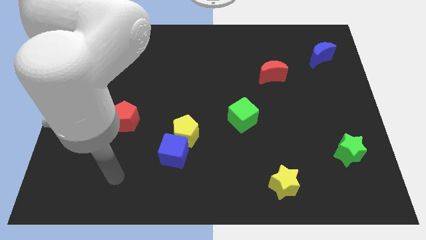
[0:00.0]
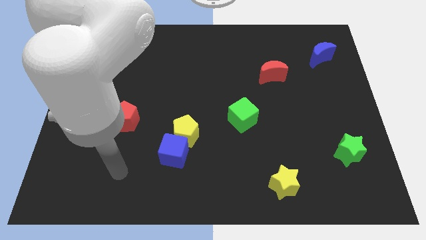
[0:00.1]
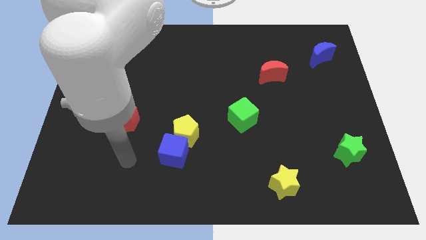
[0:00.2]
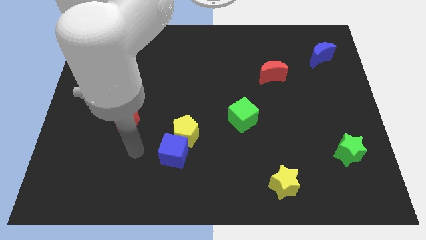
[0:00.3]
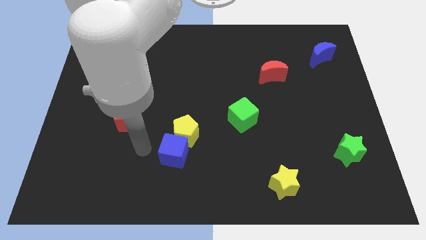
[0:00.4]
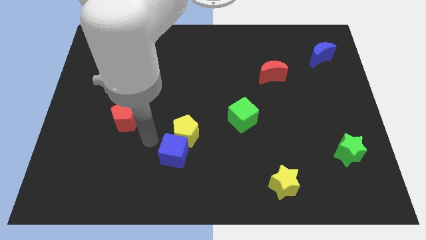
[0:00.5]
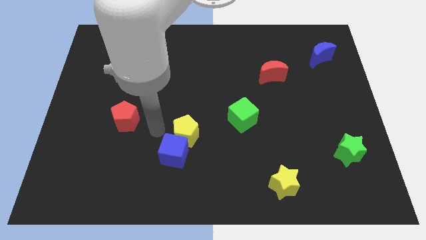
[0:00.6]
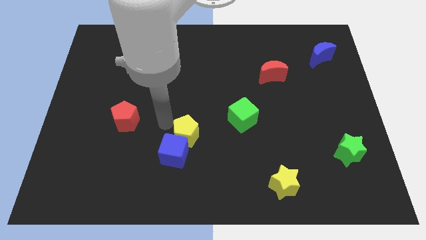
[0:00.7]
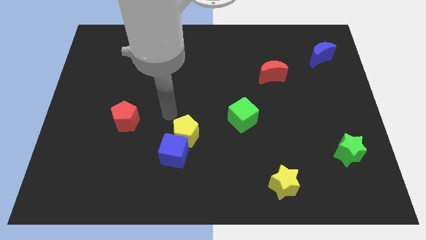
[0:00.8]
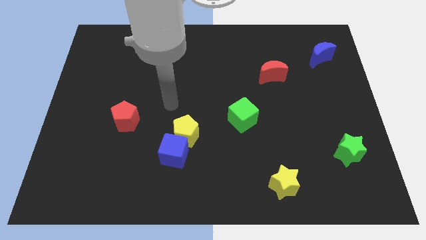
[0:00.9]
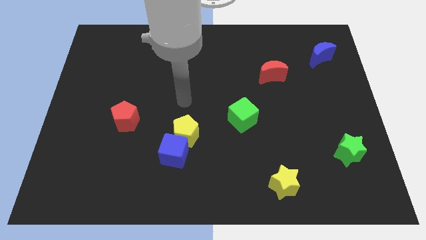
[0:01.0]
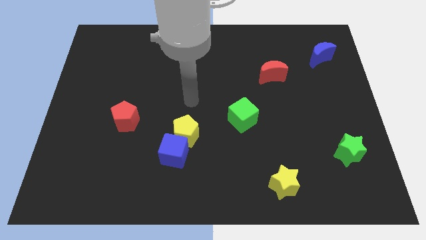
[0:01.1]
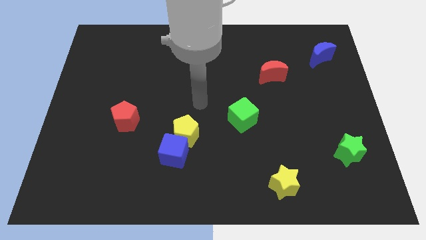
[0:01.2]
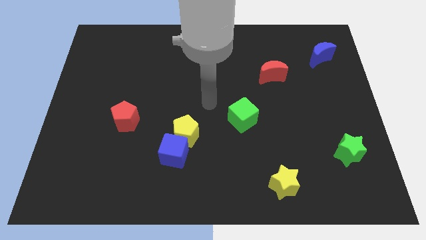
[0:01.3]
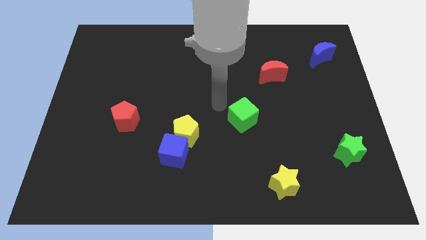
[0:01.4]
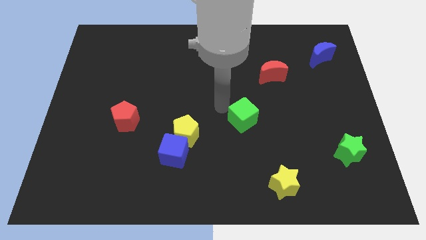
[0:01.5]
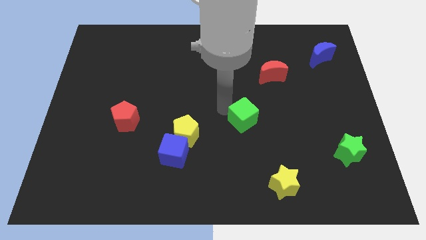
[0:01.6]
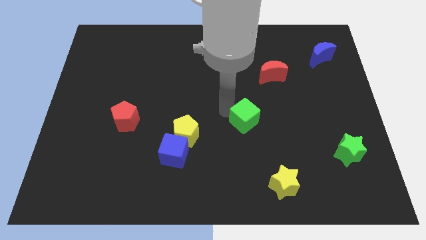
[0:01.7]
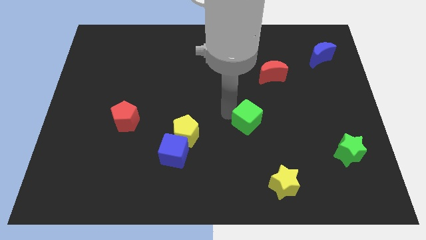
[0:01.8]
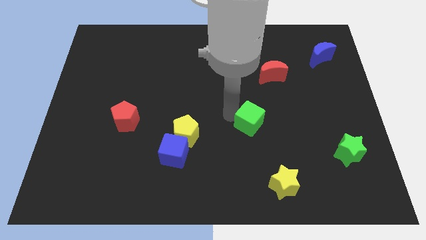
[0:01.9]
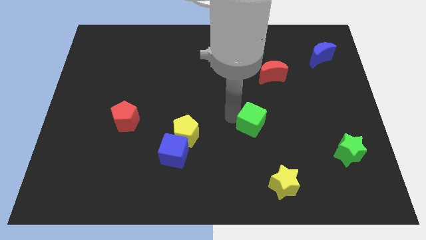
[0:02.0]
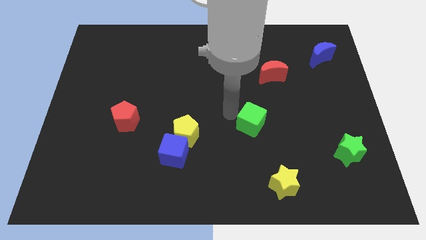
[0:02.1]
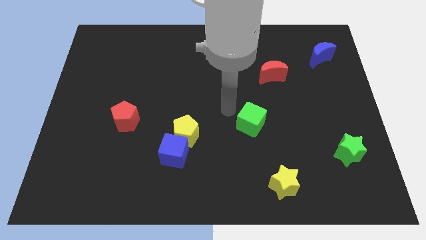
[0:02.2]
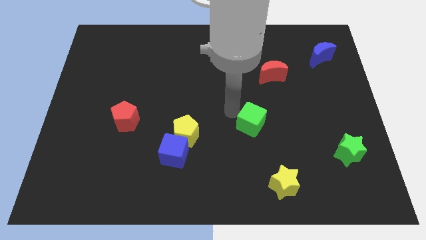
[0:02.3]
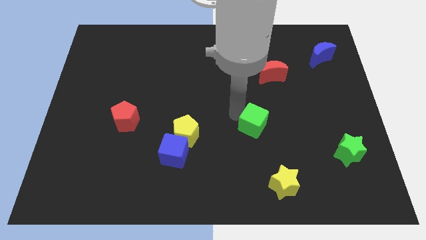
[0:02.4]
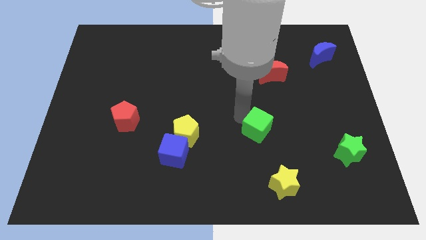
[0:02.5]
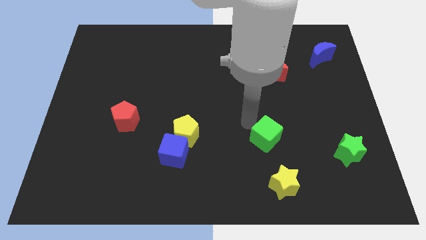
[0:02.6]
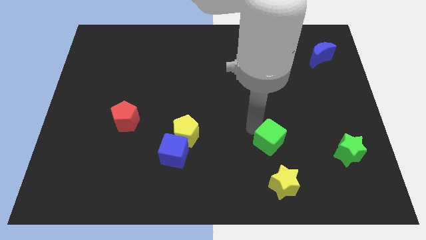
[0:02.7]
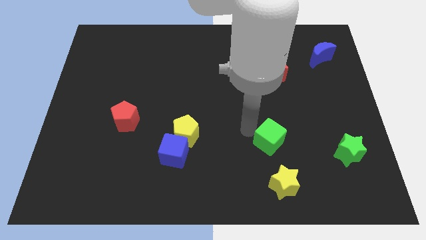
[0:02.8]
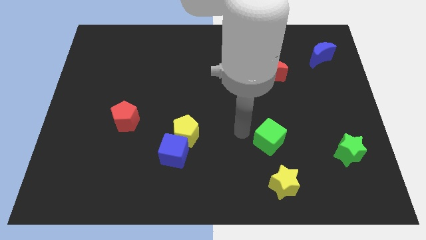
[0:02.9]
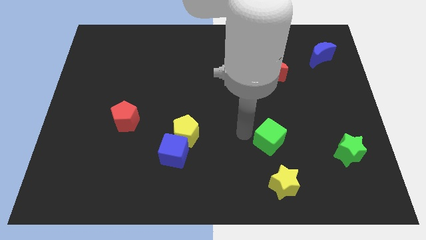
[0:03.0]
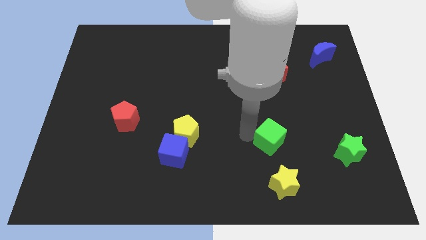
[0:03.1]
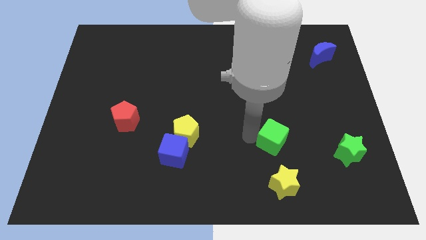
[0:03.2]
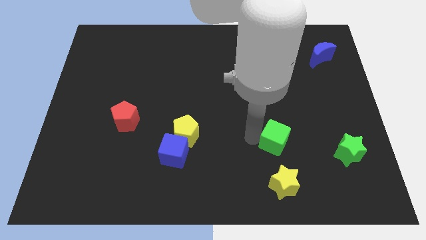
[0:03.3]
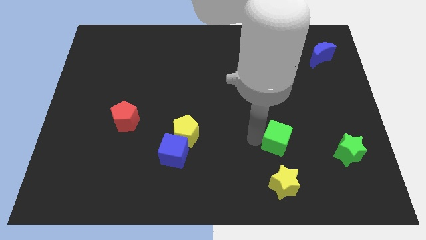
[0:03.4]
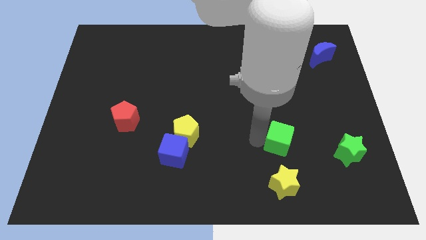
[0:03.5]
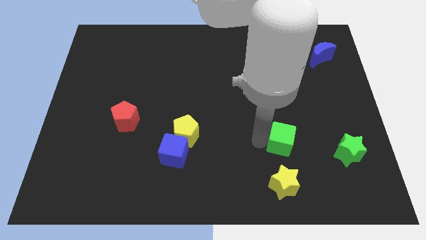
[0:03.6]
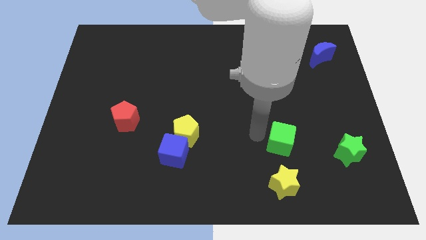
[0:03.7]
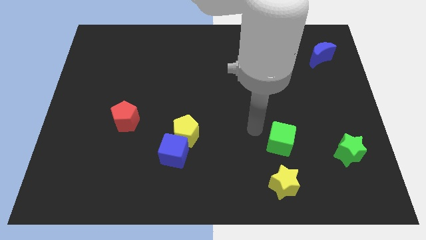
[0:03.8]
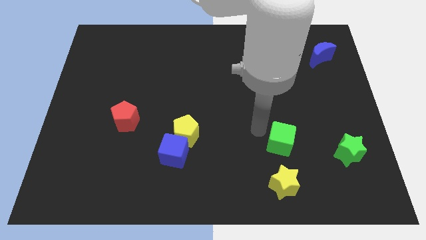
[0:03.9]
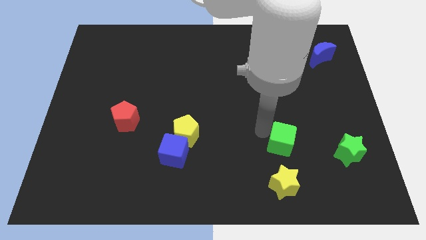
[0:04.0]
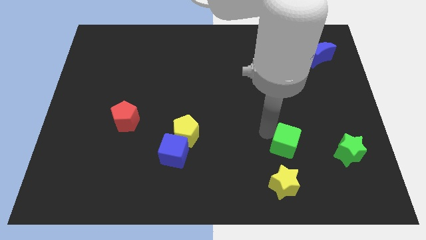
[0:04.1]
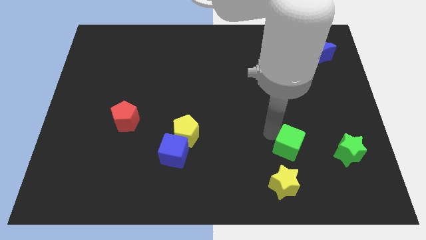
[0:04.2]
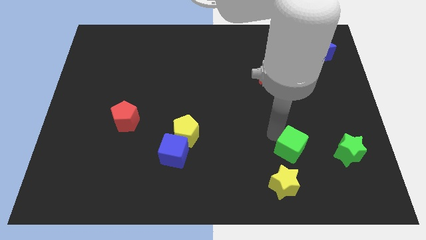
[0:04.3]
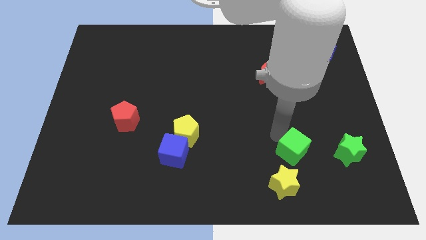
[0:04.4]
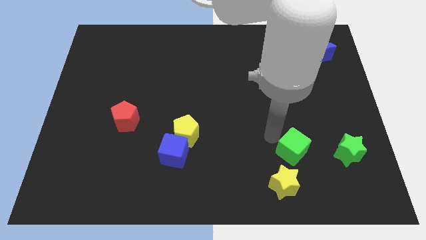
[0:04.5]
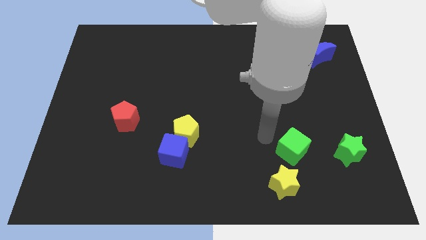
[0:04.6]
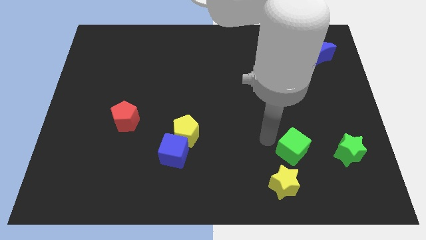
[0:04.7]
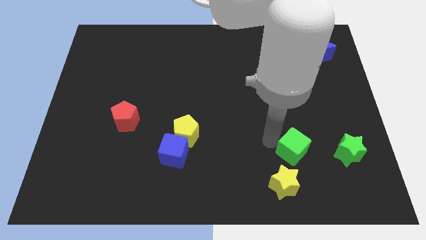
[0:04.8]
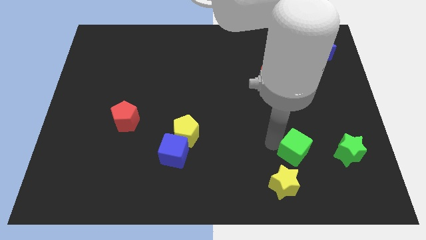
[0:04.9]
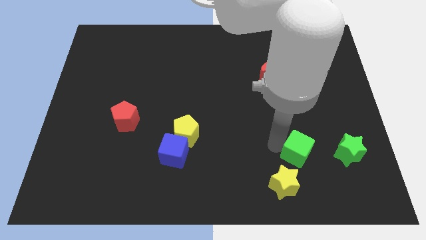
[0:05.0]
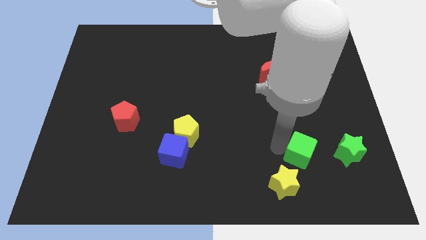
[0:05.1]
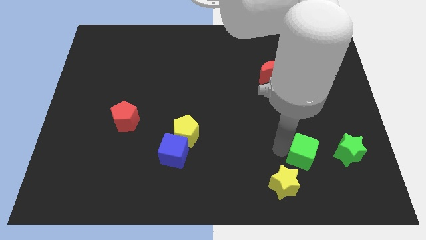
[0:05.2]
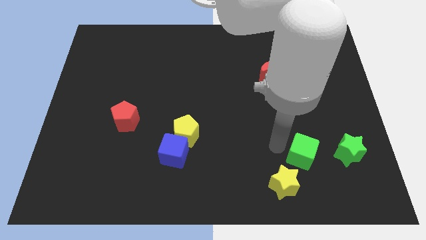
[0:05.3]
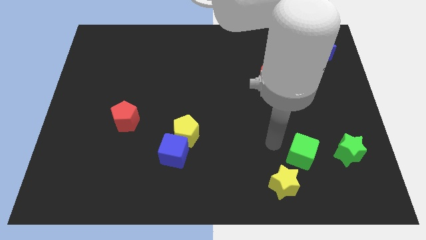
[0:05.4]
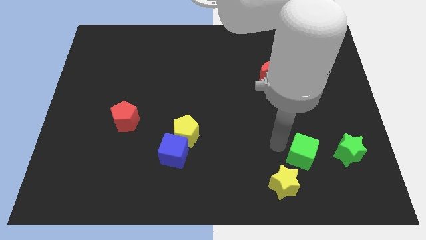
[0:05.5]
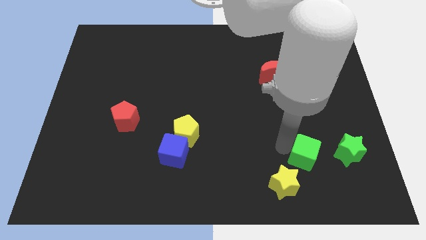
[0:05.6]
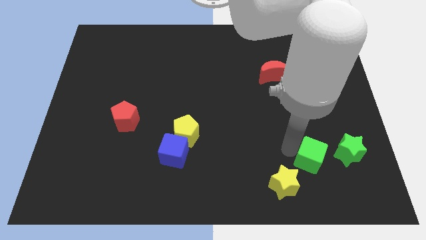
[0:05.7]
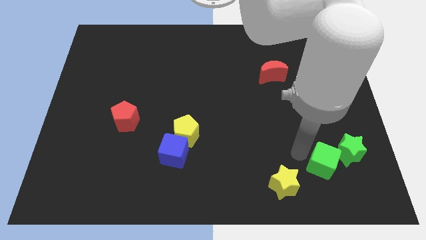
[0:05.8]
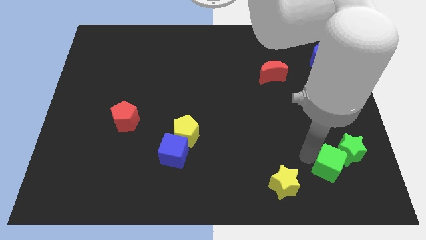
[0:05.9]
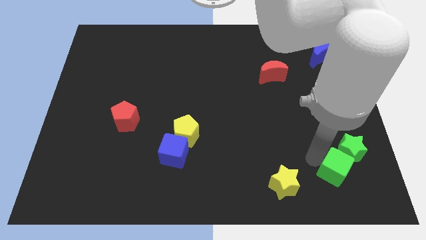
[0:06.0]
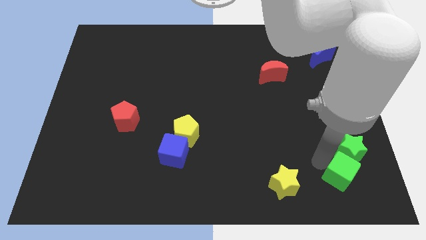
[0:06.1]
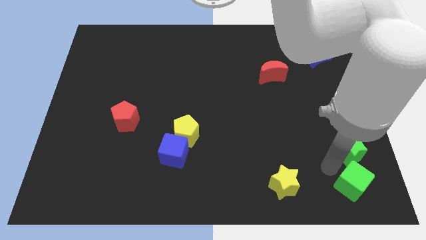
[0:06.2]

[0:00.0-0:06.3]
move the green cube to the bottom right

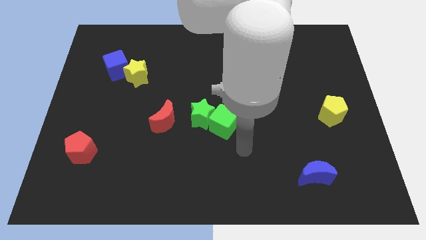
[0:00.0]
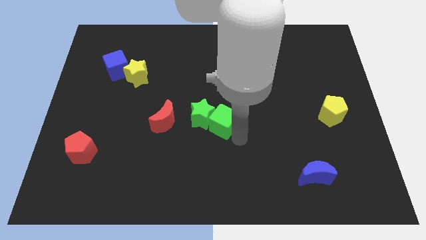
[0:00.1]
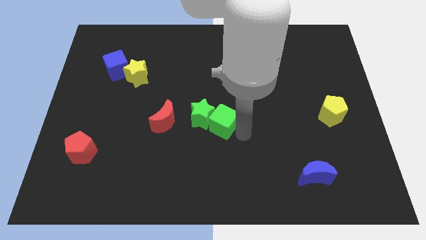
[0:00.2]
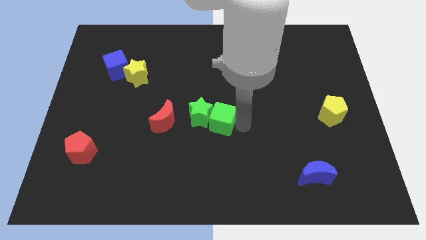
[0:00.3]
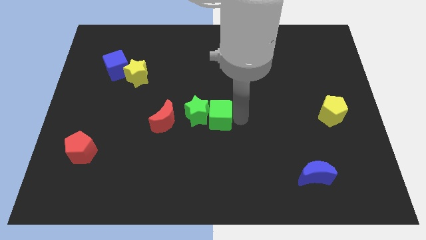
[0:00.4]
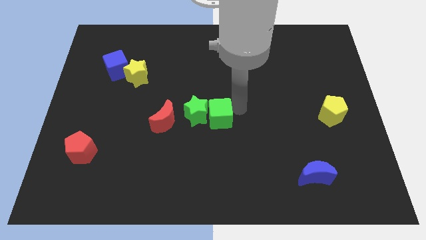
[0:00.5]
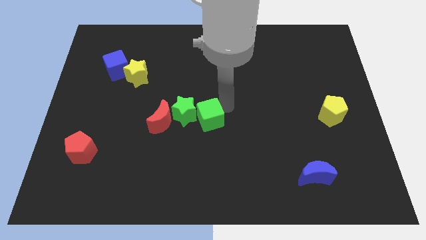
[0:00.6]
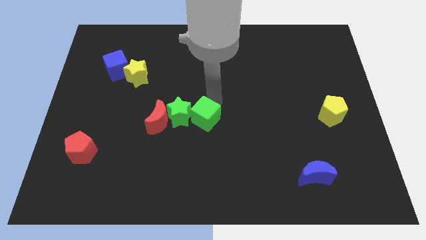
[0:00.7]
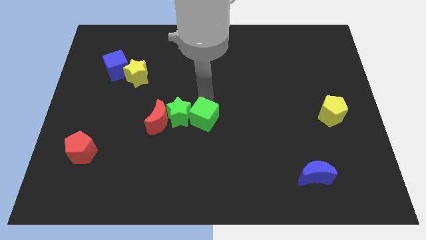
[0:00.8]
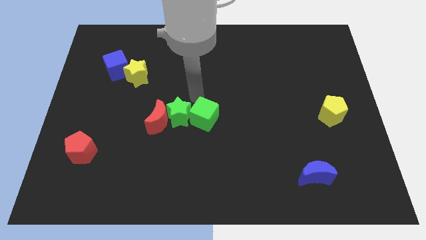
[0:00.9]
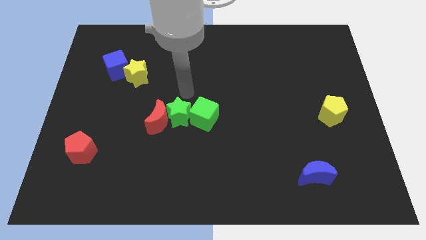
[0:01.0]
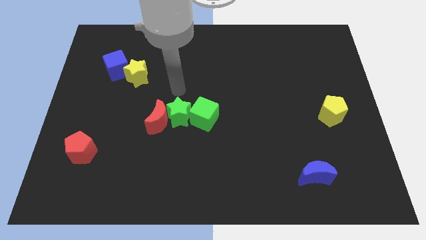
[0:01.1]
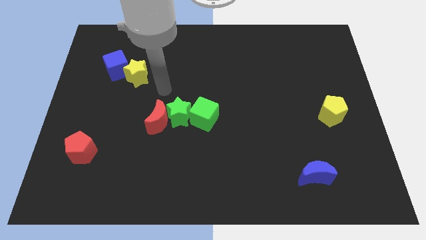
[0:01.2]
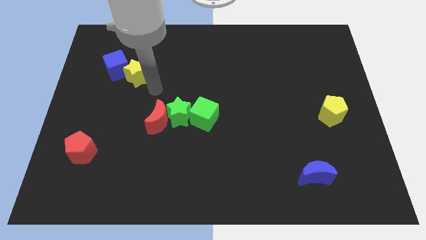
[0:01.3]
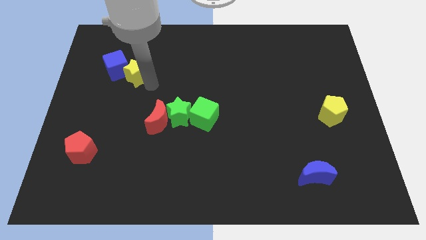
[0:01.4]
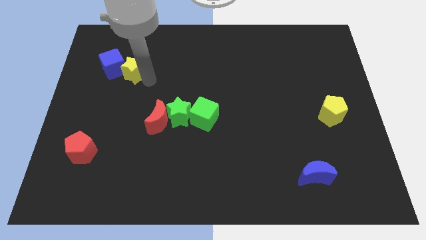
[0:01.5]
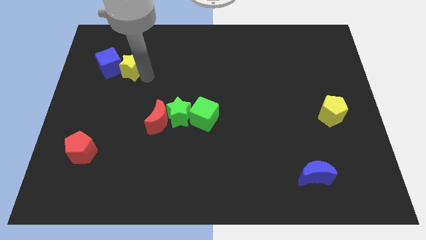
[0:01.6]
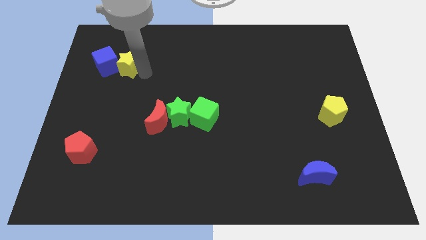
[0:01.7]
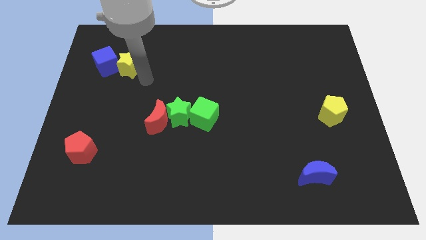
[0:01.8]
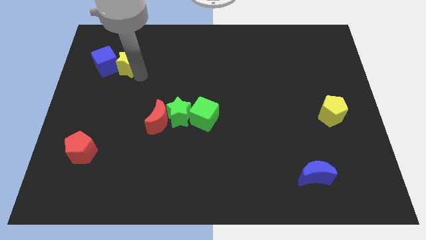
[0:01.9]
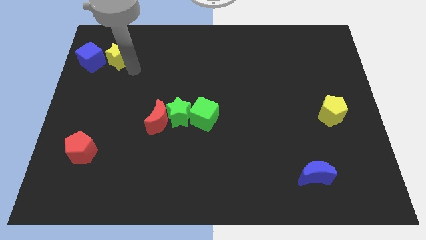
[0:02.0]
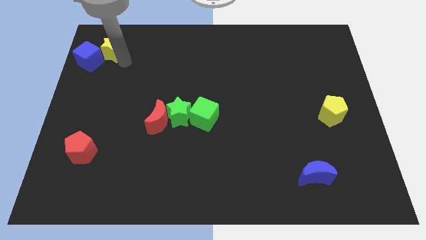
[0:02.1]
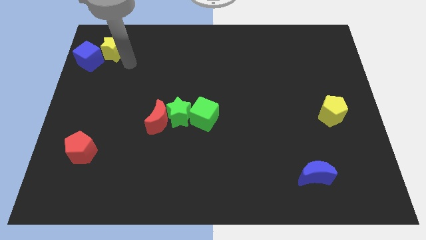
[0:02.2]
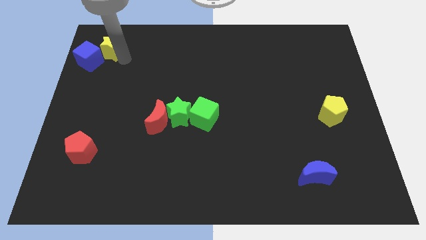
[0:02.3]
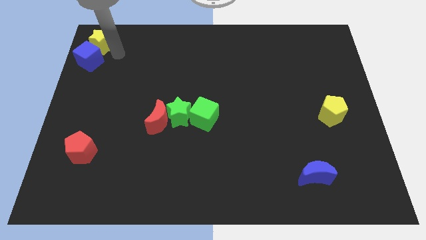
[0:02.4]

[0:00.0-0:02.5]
move the yellow star to the top left of the board
